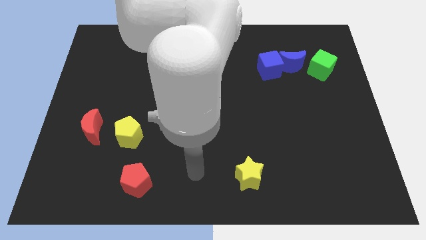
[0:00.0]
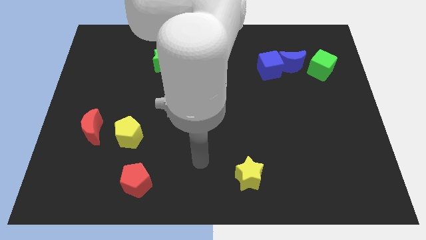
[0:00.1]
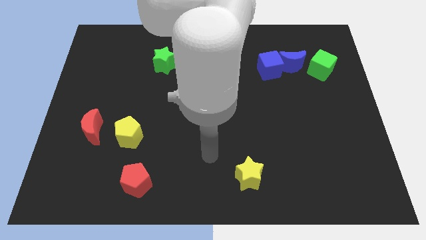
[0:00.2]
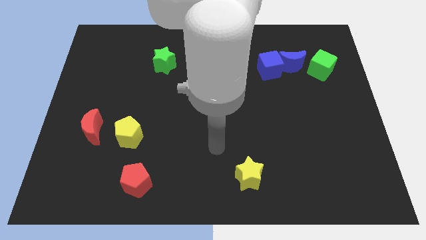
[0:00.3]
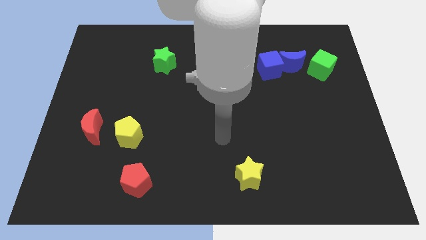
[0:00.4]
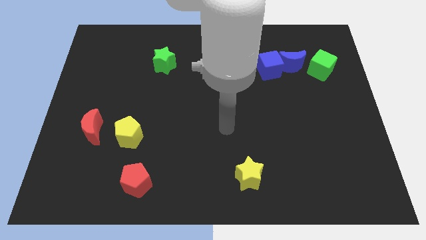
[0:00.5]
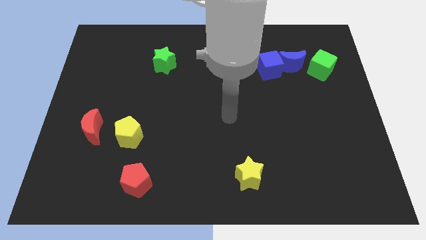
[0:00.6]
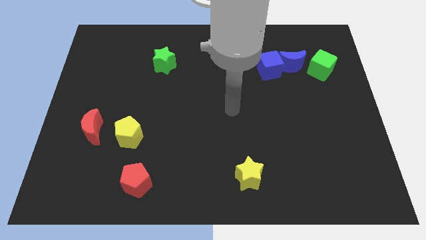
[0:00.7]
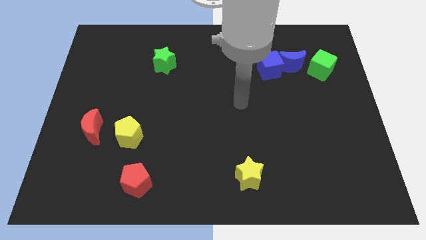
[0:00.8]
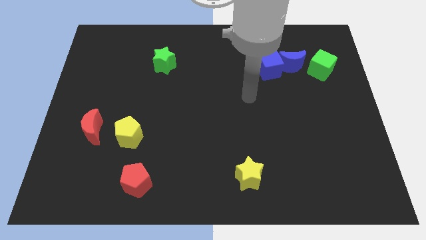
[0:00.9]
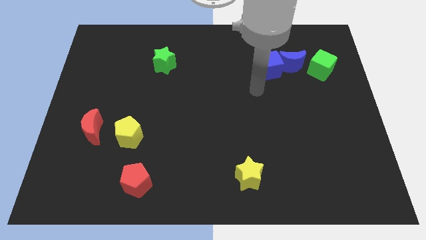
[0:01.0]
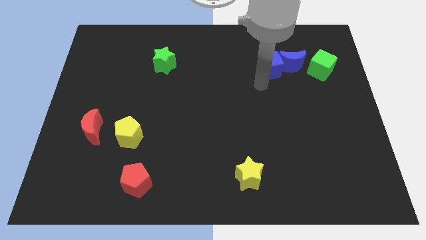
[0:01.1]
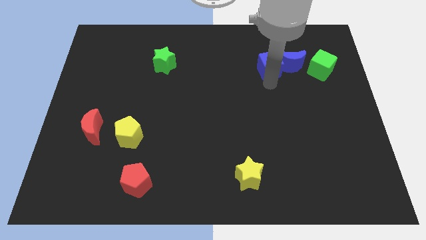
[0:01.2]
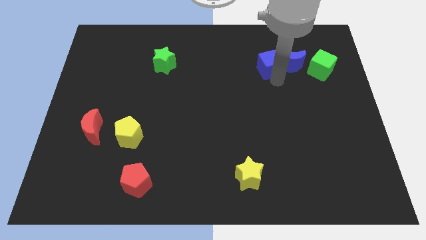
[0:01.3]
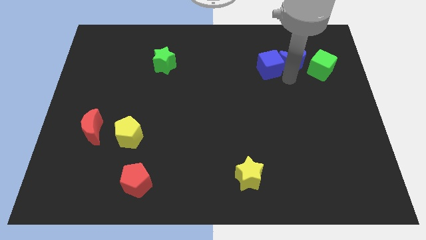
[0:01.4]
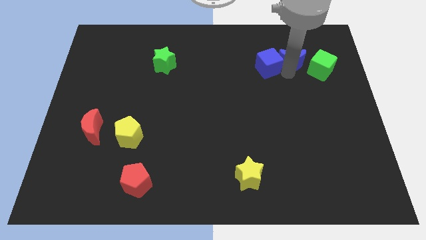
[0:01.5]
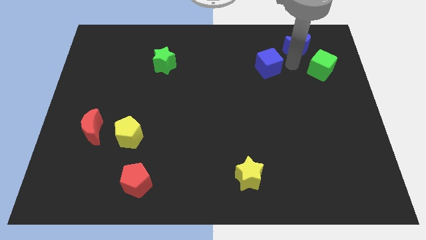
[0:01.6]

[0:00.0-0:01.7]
move the blue cube away from the blue moon

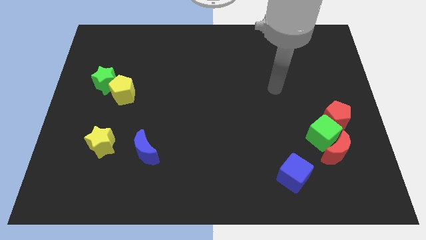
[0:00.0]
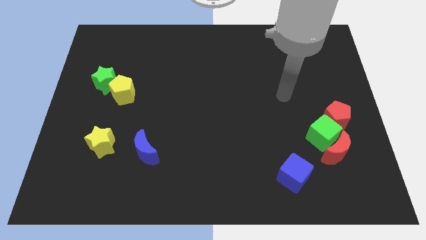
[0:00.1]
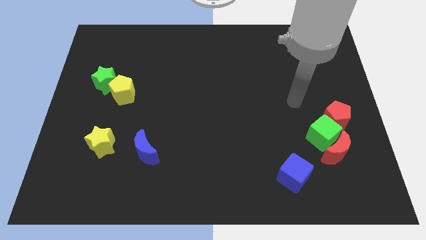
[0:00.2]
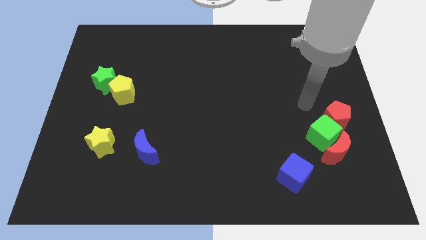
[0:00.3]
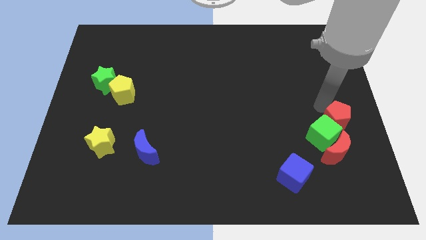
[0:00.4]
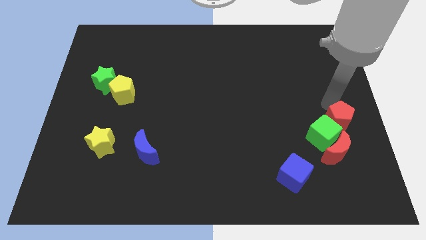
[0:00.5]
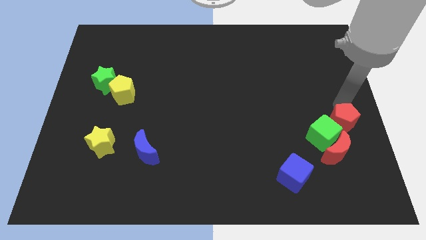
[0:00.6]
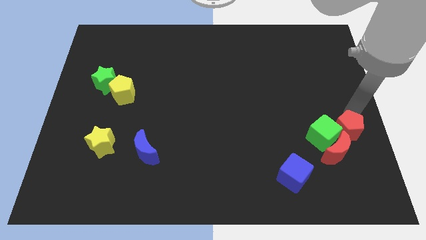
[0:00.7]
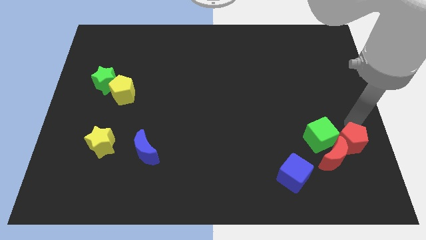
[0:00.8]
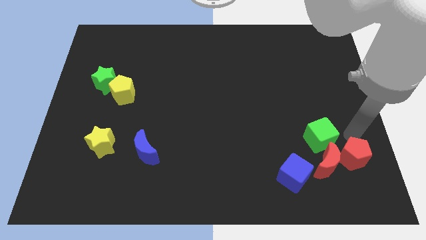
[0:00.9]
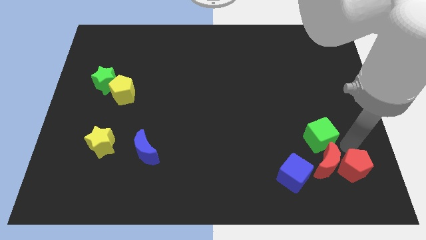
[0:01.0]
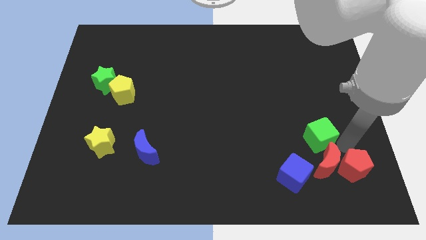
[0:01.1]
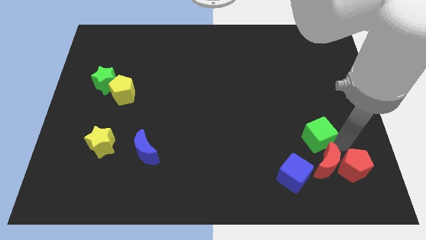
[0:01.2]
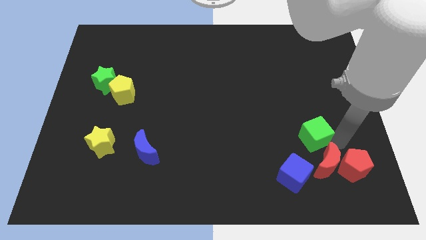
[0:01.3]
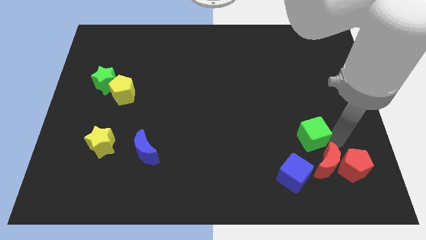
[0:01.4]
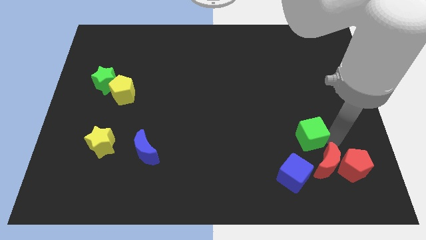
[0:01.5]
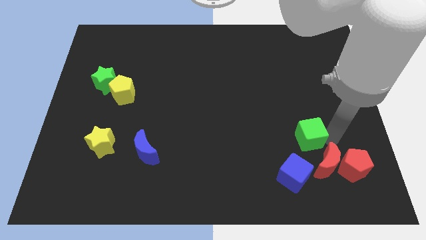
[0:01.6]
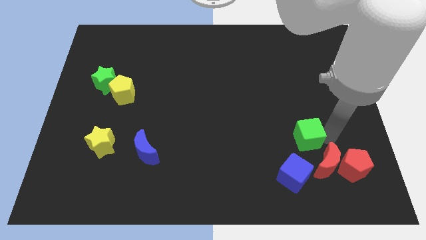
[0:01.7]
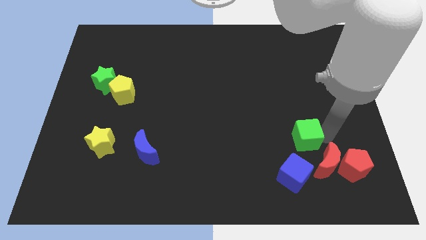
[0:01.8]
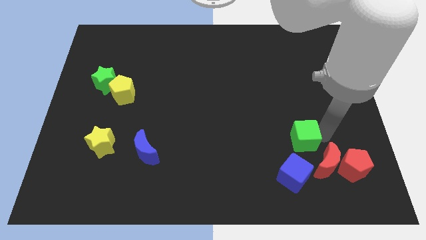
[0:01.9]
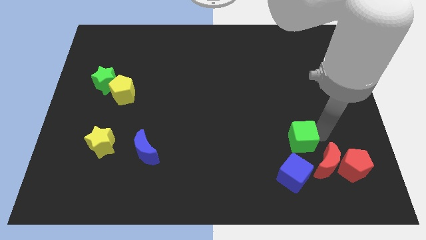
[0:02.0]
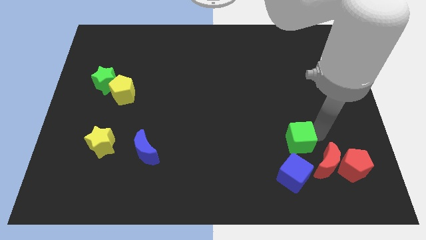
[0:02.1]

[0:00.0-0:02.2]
separate the green cube from the red moon and red pentagon

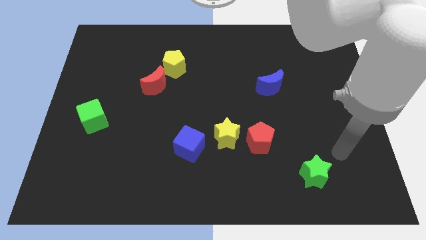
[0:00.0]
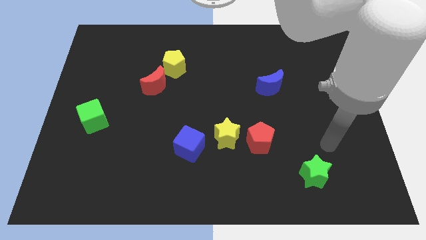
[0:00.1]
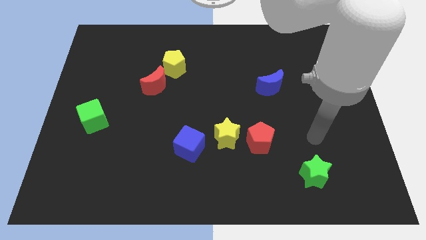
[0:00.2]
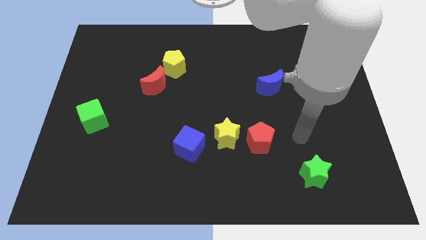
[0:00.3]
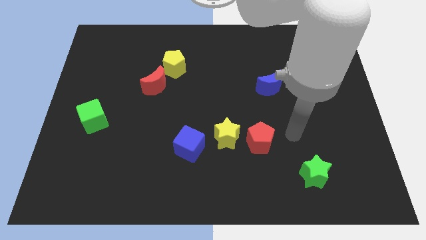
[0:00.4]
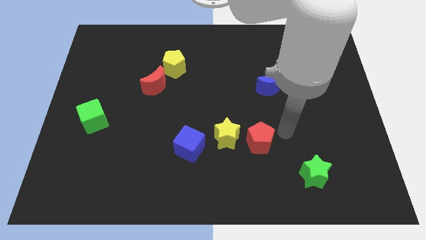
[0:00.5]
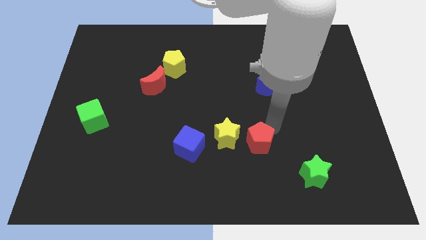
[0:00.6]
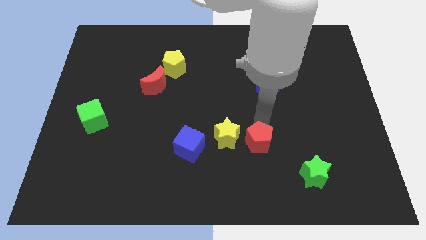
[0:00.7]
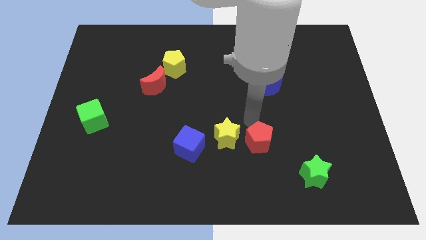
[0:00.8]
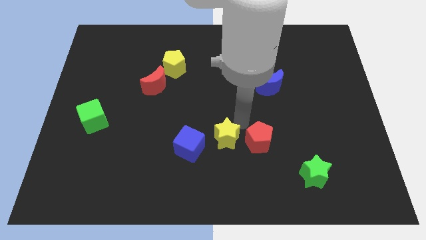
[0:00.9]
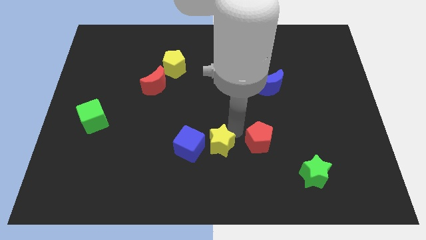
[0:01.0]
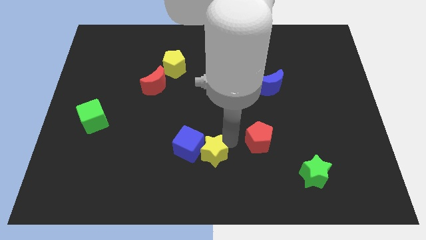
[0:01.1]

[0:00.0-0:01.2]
pull the red pentagon apart from the yellow star

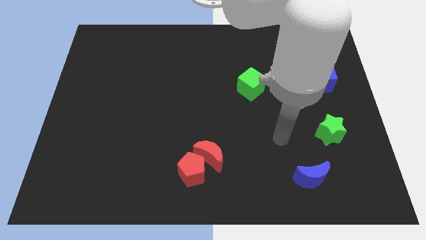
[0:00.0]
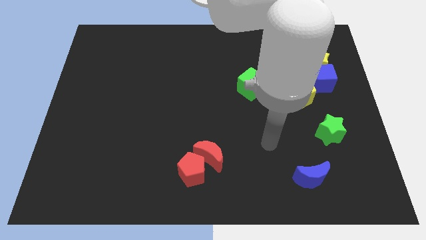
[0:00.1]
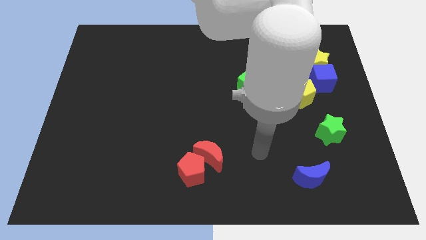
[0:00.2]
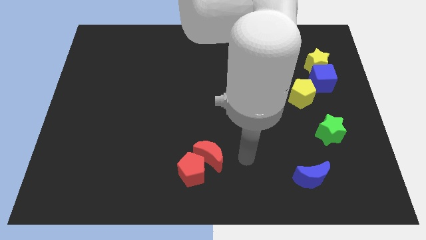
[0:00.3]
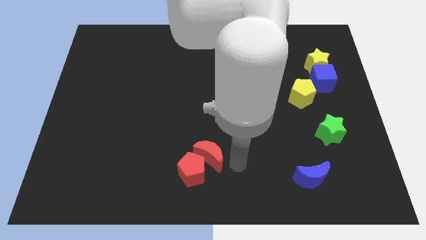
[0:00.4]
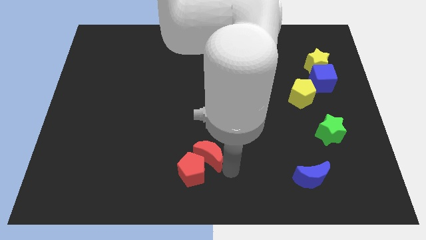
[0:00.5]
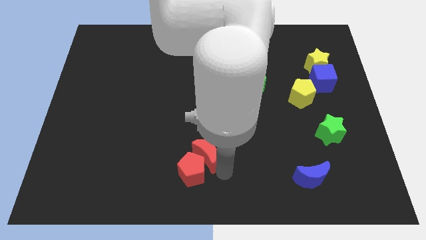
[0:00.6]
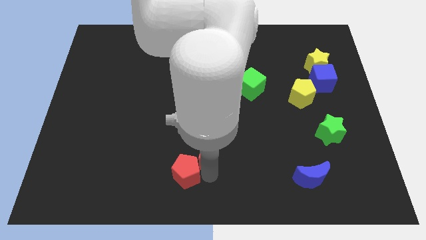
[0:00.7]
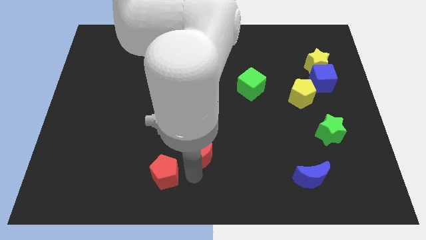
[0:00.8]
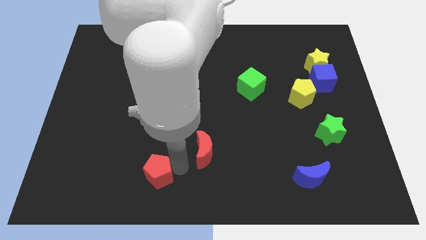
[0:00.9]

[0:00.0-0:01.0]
pull the red moon apart from the red pentagon

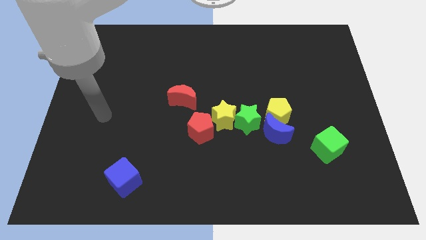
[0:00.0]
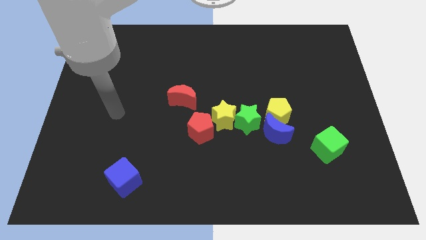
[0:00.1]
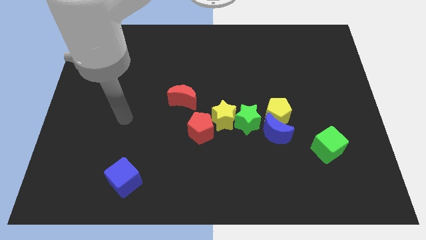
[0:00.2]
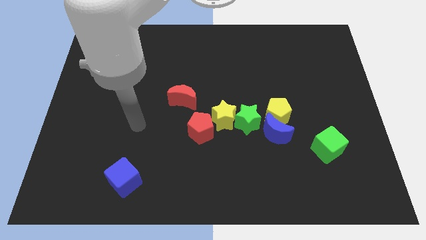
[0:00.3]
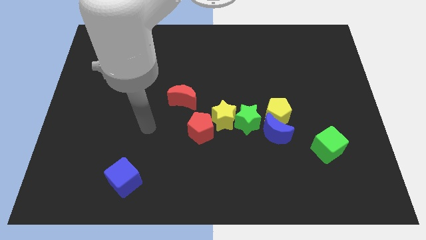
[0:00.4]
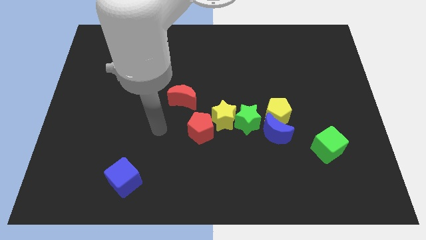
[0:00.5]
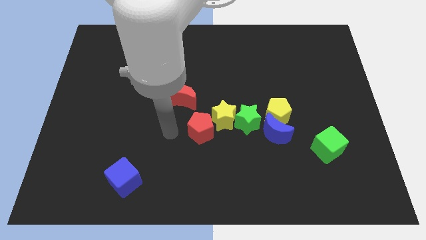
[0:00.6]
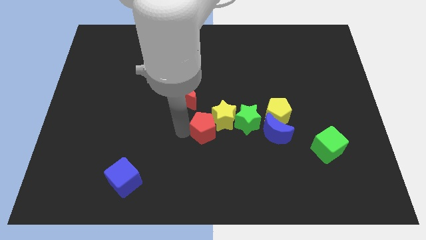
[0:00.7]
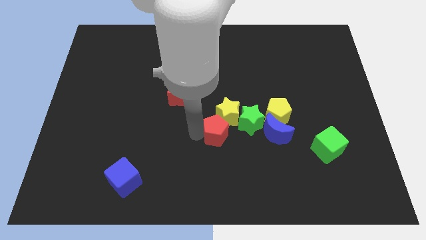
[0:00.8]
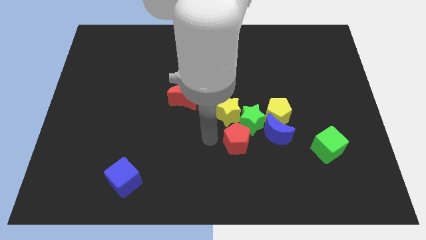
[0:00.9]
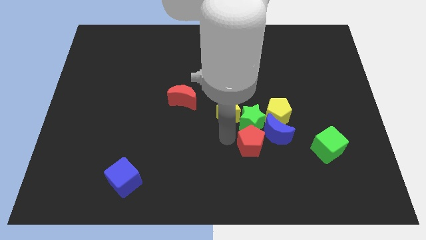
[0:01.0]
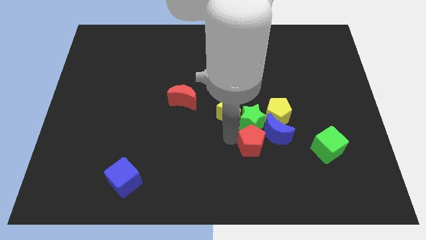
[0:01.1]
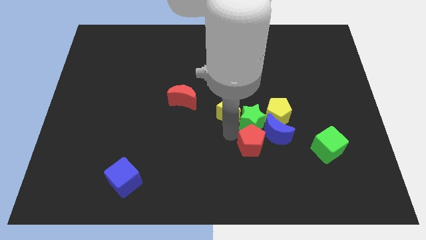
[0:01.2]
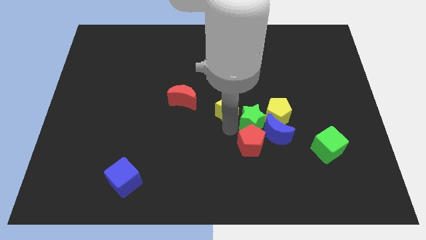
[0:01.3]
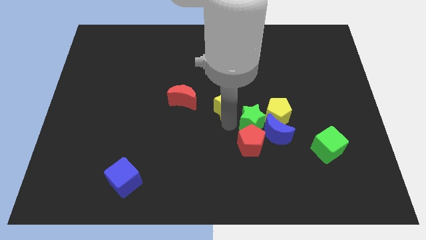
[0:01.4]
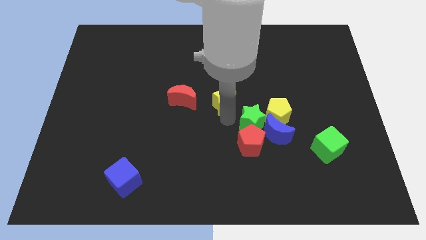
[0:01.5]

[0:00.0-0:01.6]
pull the yellow star apart from the green star and red pentagon

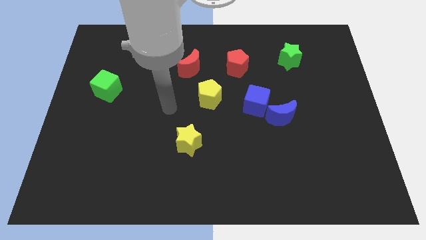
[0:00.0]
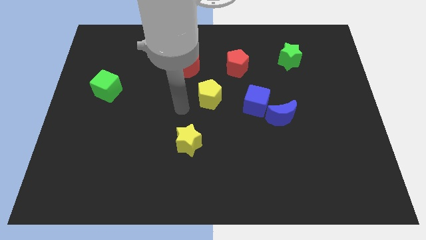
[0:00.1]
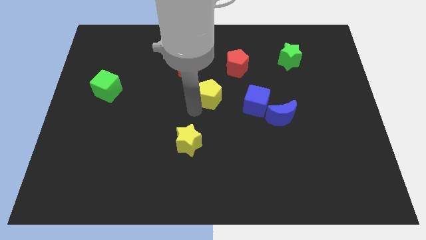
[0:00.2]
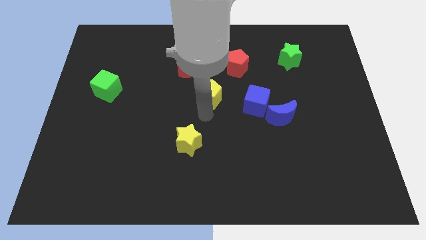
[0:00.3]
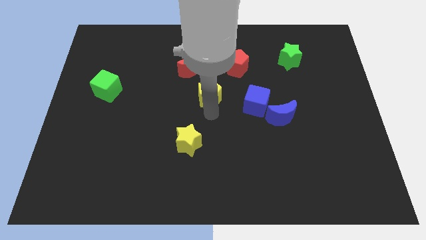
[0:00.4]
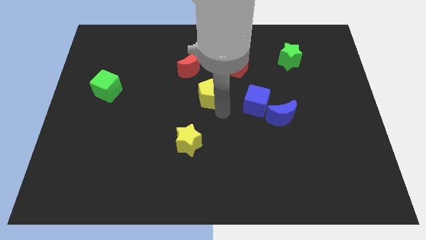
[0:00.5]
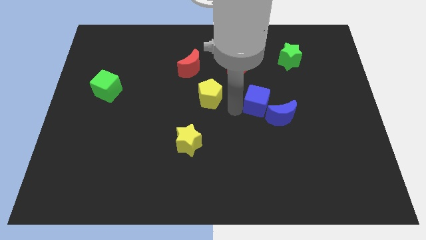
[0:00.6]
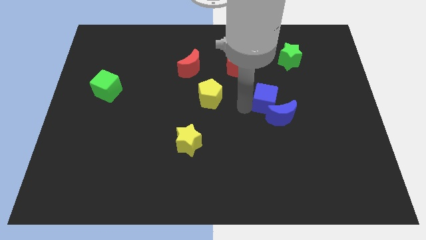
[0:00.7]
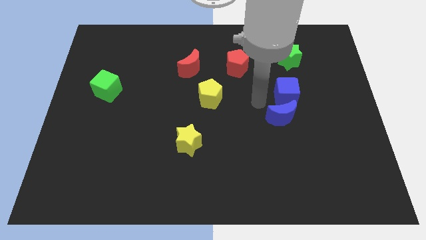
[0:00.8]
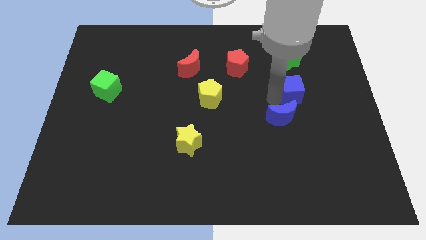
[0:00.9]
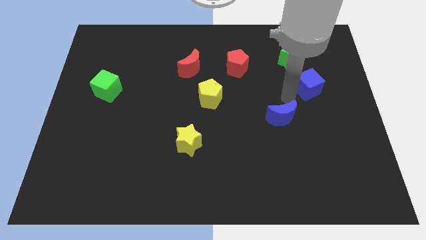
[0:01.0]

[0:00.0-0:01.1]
move the blue moon away from the blue cube

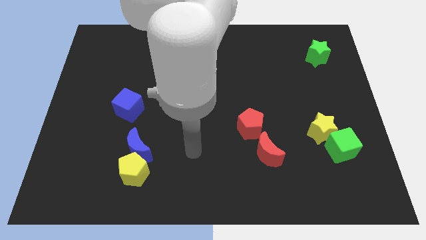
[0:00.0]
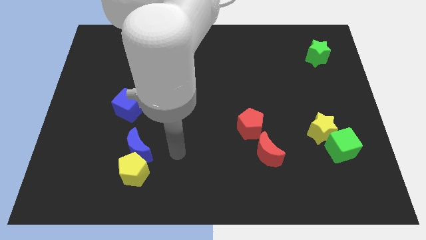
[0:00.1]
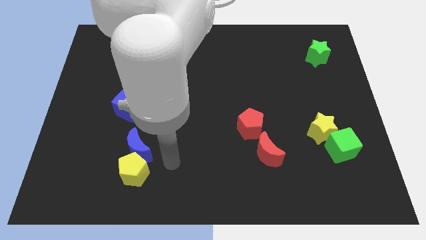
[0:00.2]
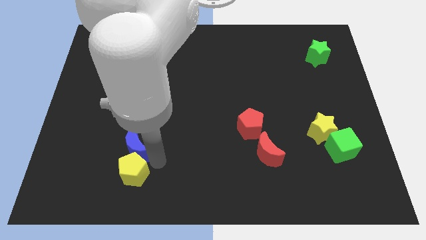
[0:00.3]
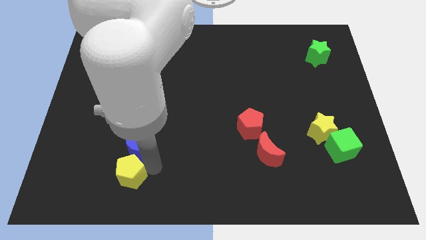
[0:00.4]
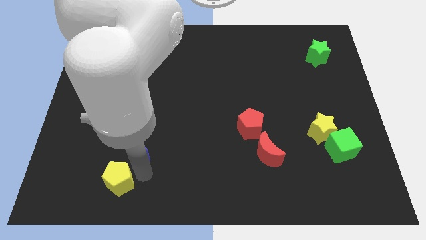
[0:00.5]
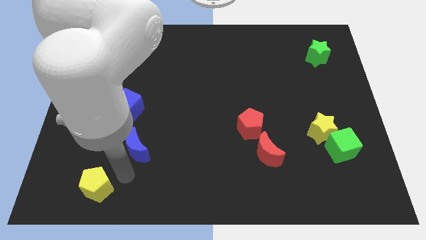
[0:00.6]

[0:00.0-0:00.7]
move the blue moon away from the yellow pentagon
